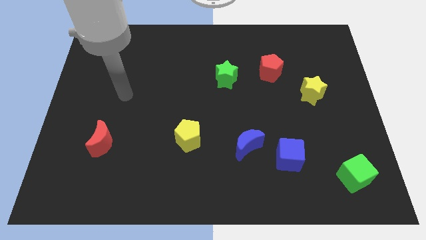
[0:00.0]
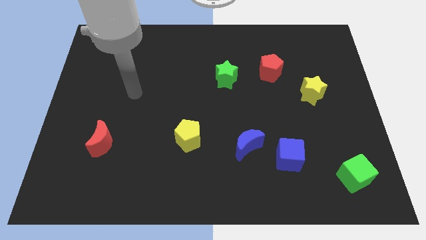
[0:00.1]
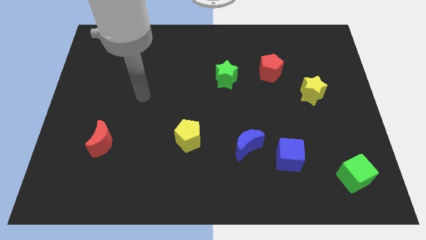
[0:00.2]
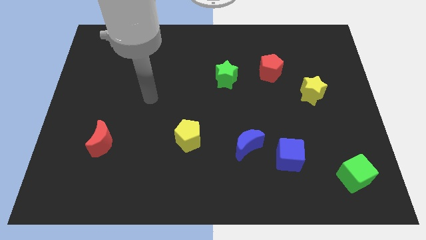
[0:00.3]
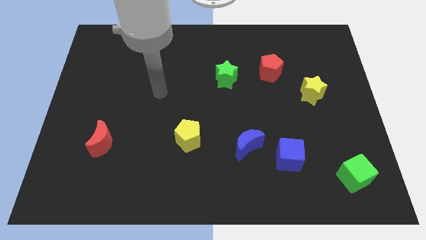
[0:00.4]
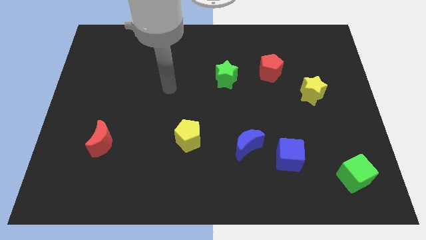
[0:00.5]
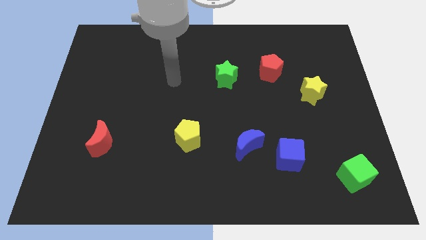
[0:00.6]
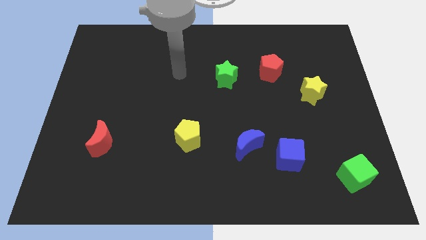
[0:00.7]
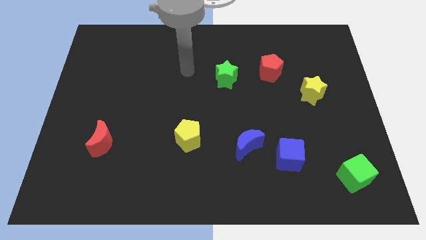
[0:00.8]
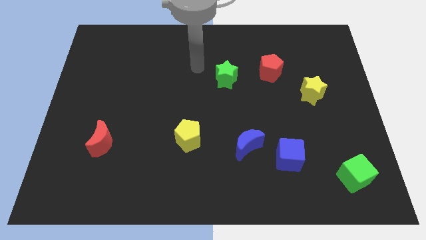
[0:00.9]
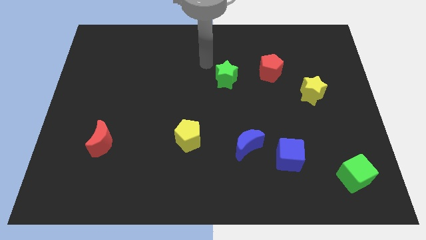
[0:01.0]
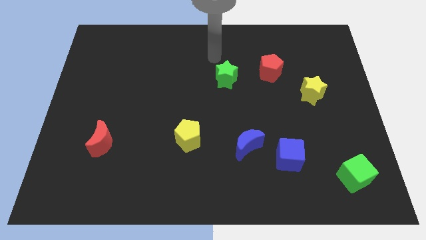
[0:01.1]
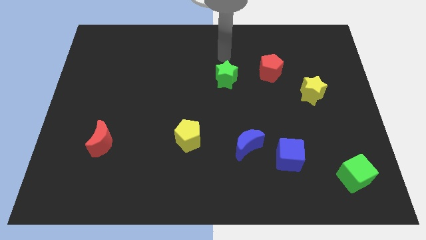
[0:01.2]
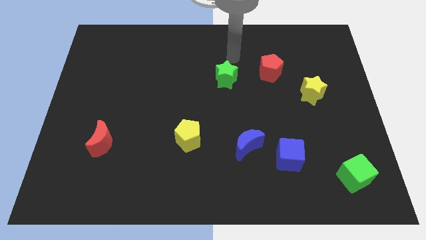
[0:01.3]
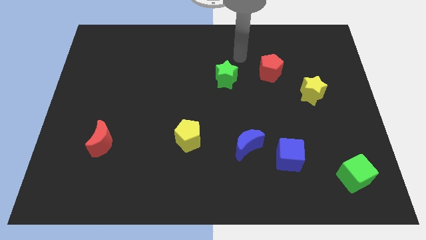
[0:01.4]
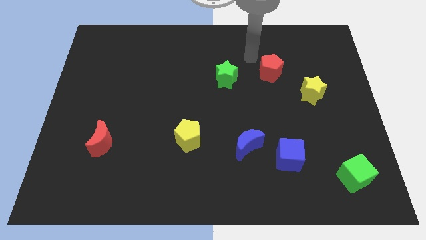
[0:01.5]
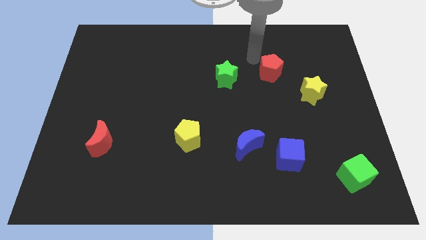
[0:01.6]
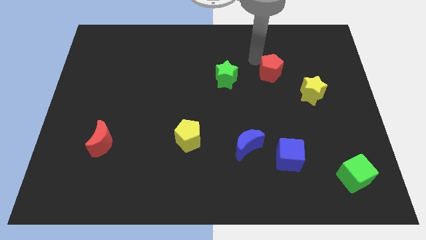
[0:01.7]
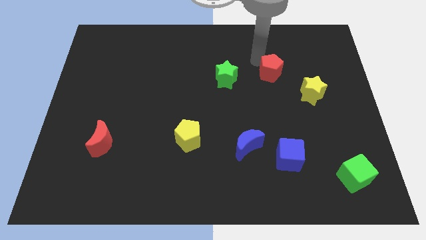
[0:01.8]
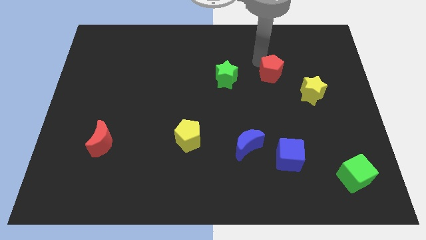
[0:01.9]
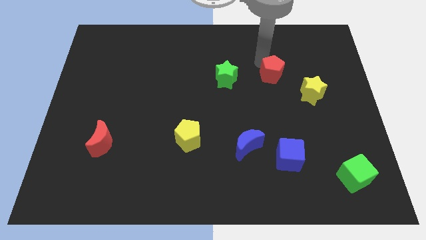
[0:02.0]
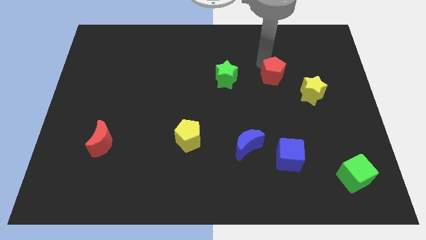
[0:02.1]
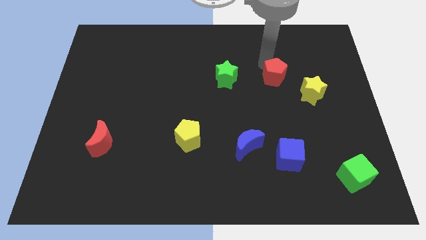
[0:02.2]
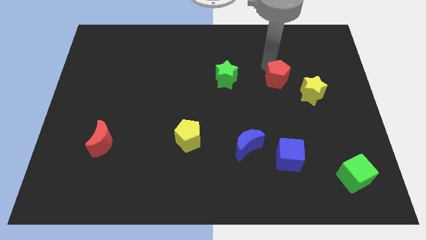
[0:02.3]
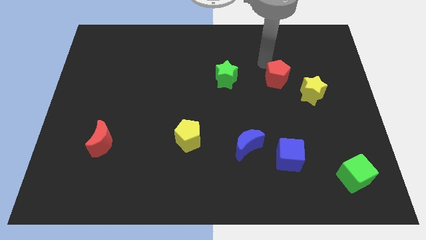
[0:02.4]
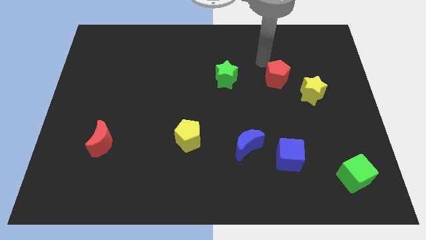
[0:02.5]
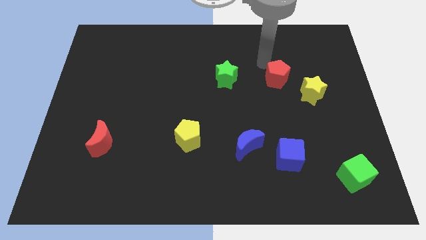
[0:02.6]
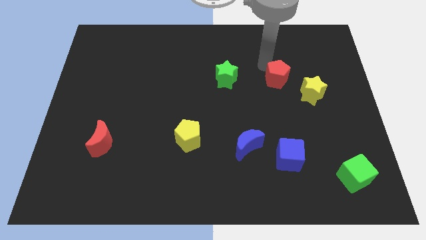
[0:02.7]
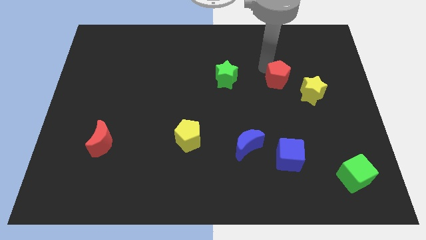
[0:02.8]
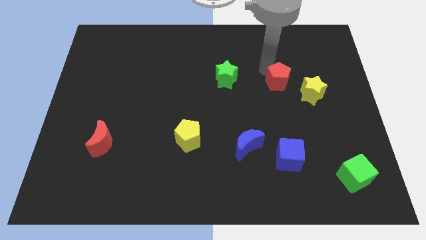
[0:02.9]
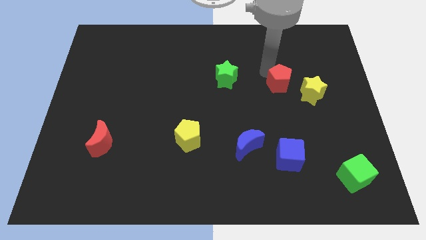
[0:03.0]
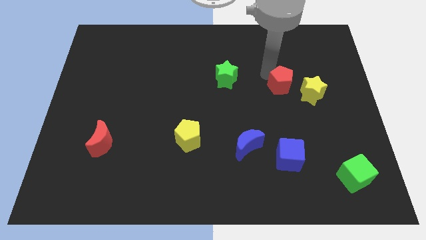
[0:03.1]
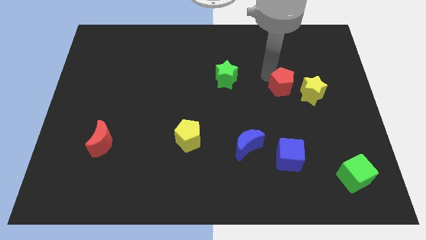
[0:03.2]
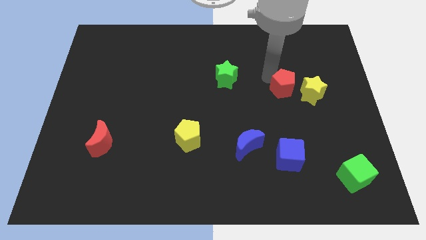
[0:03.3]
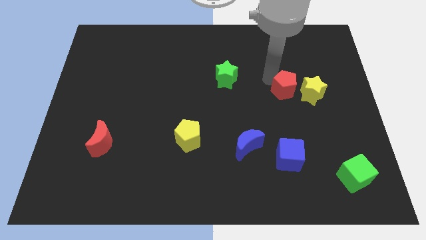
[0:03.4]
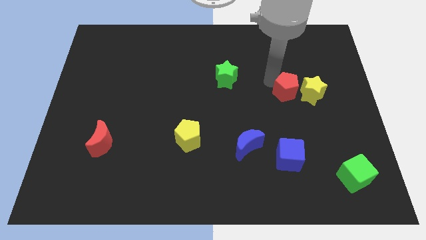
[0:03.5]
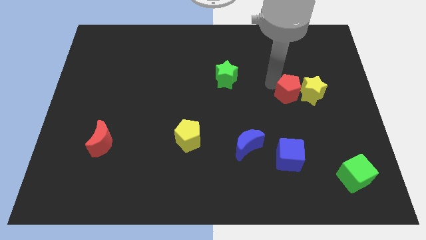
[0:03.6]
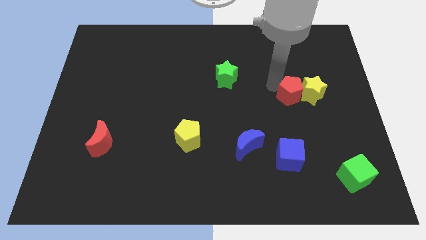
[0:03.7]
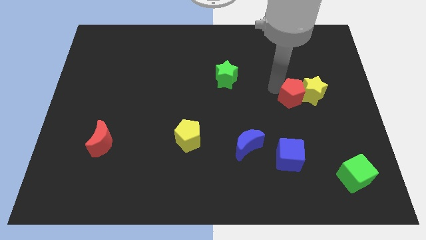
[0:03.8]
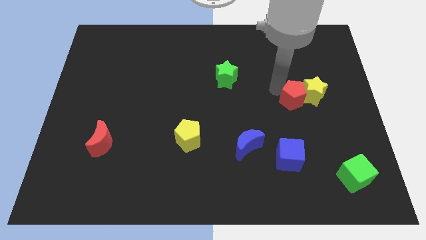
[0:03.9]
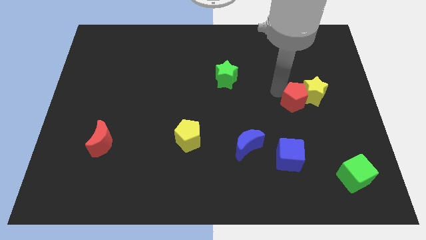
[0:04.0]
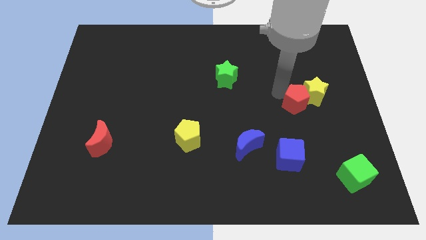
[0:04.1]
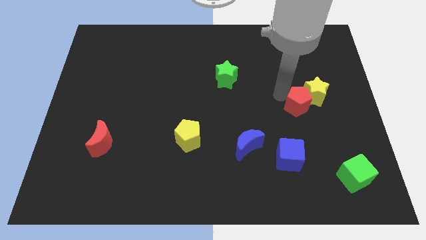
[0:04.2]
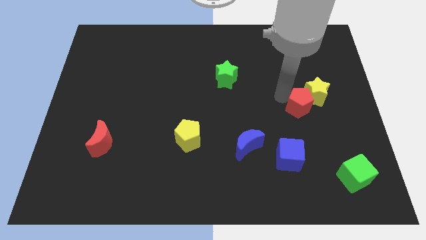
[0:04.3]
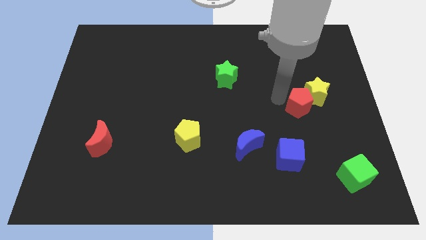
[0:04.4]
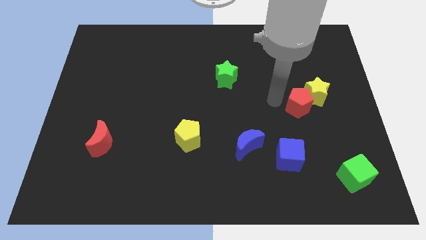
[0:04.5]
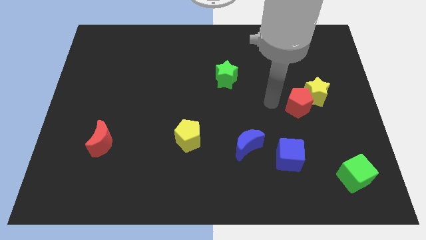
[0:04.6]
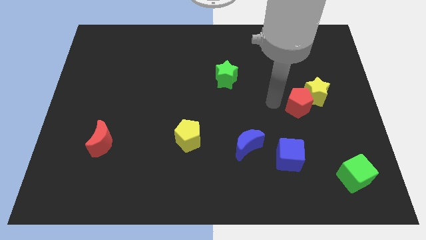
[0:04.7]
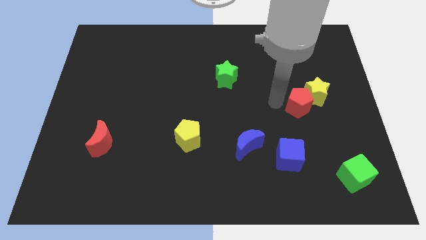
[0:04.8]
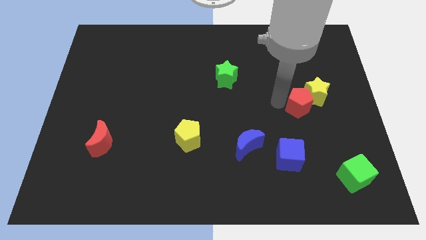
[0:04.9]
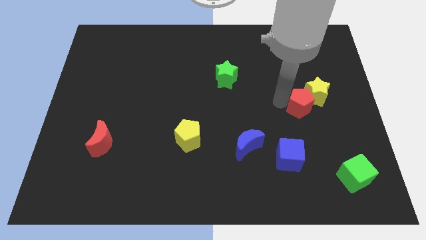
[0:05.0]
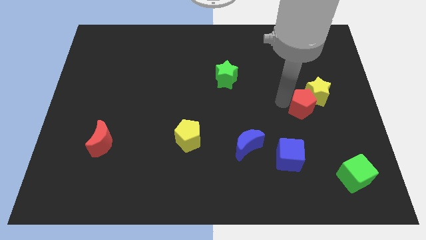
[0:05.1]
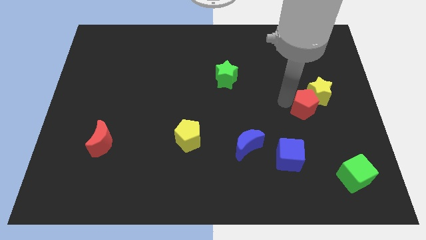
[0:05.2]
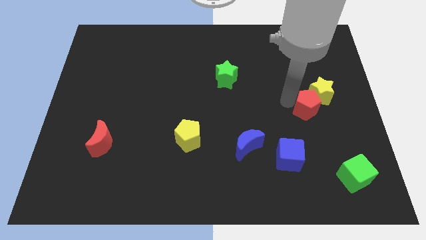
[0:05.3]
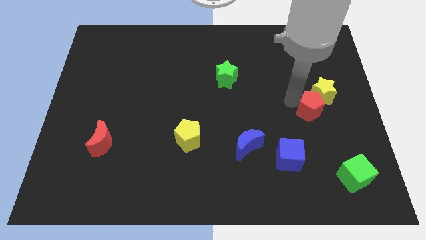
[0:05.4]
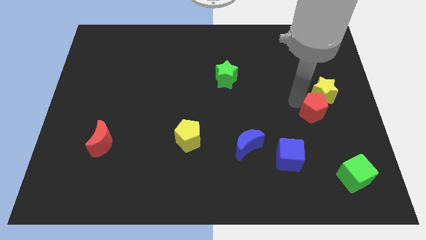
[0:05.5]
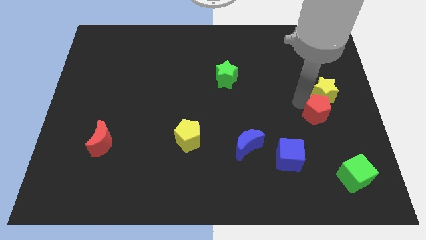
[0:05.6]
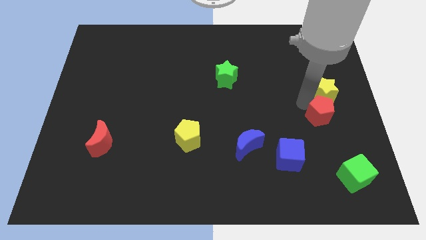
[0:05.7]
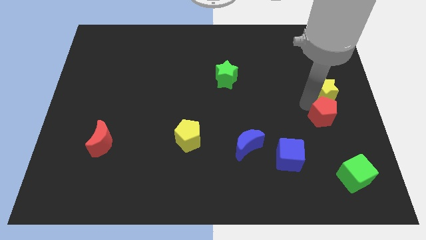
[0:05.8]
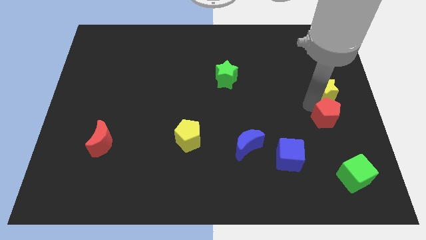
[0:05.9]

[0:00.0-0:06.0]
move the red pentagon to the bottom right of the yellow star

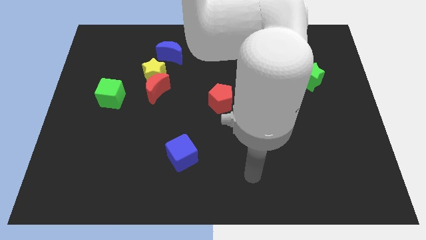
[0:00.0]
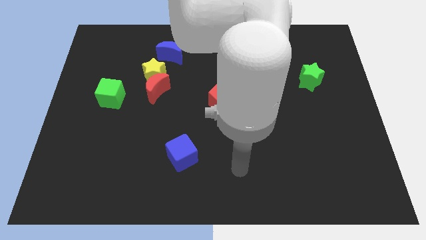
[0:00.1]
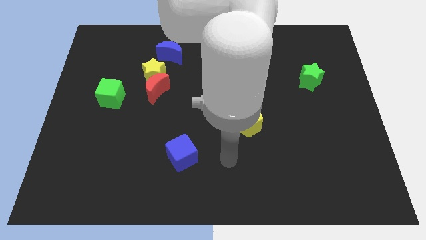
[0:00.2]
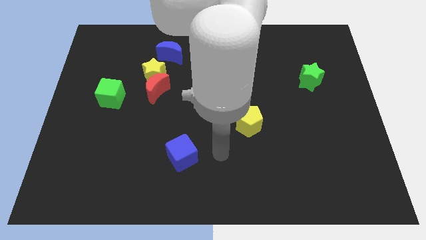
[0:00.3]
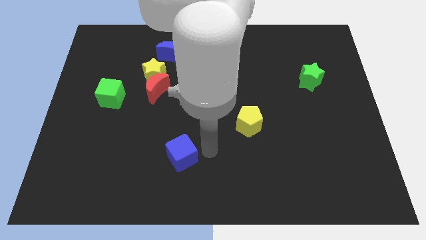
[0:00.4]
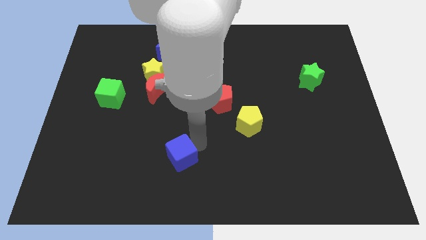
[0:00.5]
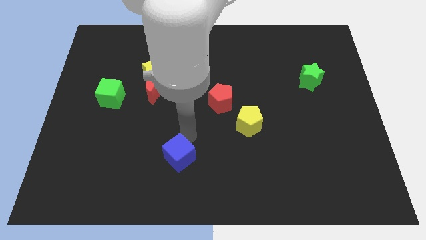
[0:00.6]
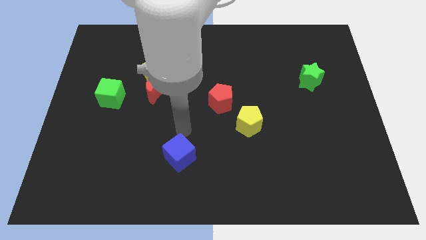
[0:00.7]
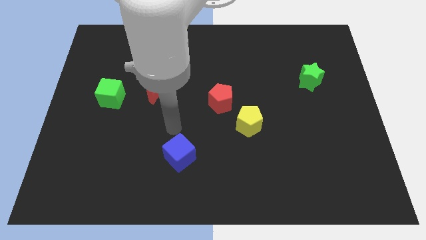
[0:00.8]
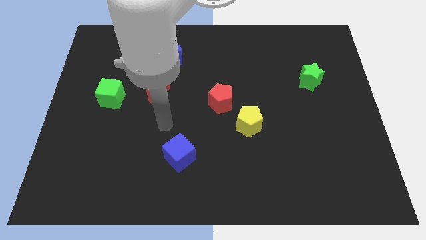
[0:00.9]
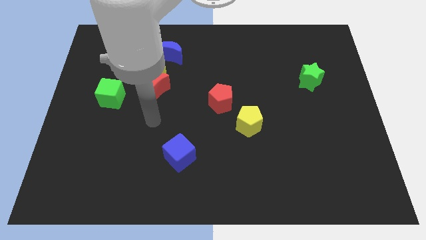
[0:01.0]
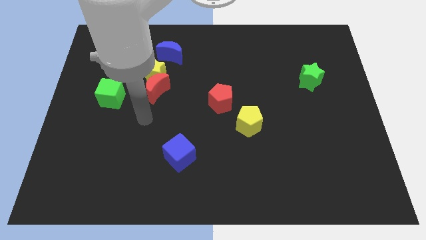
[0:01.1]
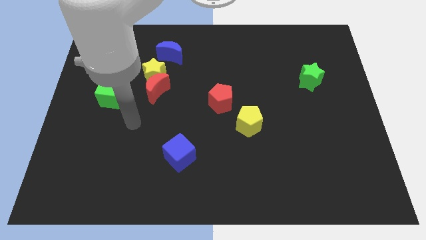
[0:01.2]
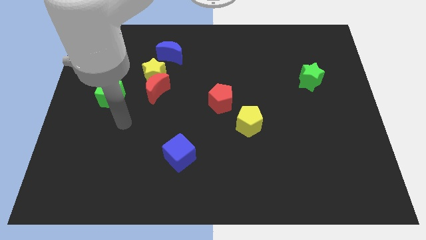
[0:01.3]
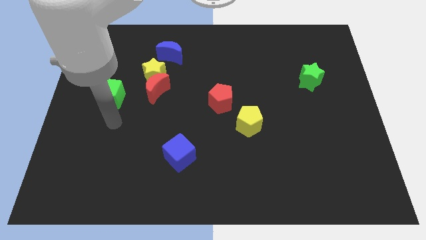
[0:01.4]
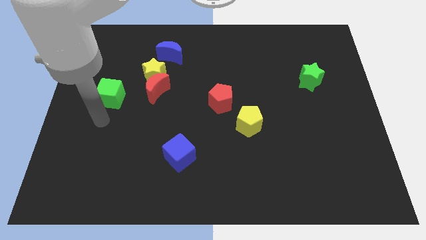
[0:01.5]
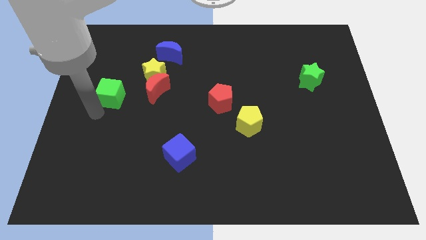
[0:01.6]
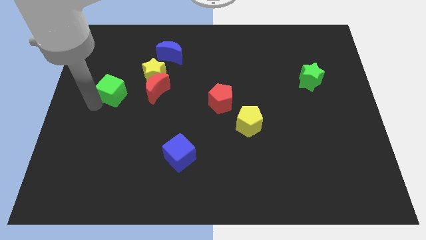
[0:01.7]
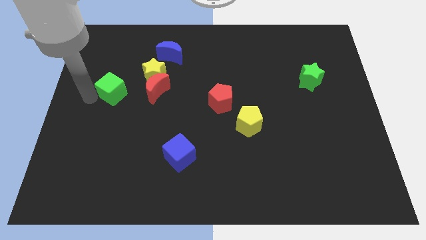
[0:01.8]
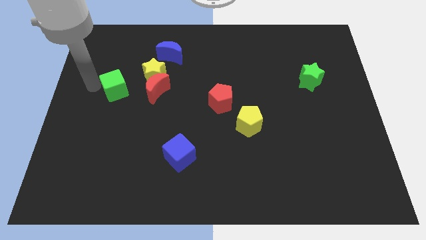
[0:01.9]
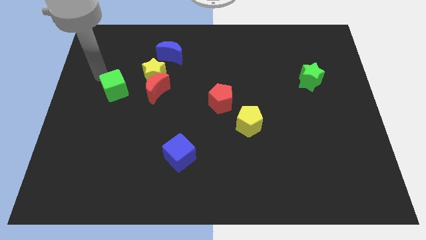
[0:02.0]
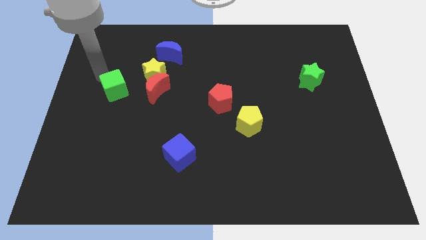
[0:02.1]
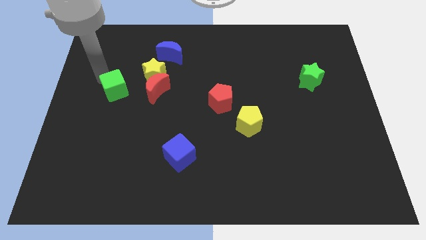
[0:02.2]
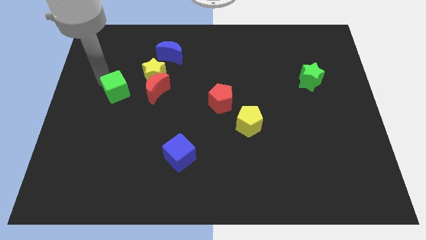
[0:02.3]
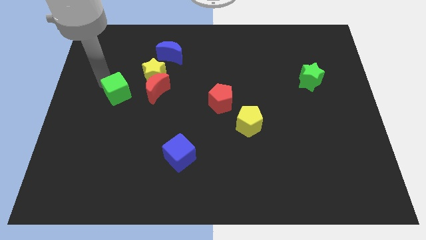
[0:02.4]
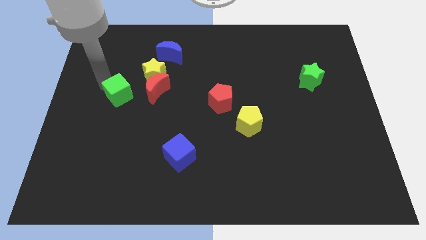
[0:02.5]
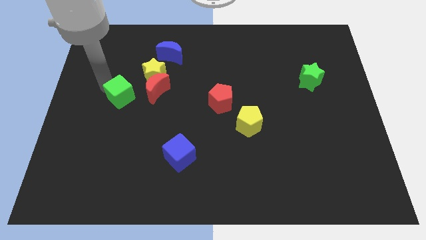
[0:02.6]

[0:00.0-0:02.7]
slide the green cube to the bottom left side of the red moon
